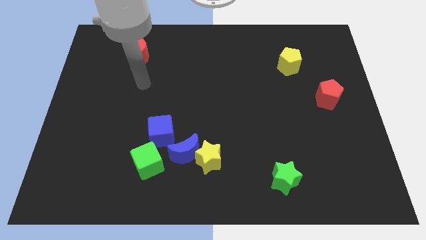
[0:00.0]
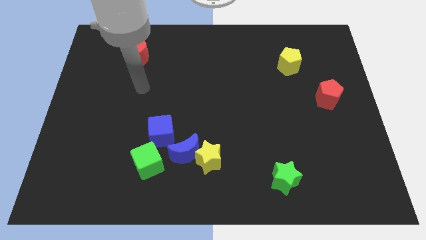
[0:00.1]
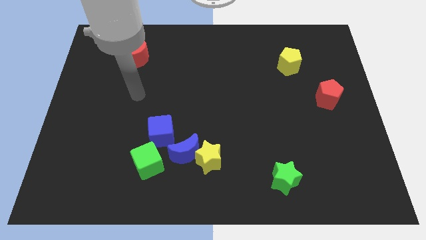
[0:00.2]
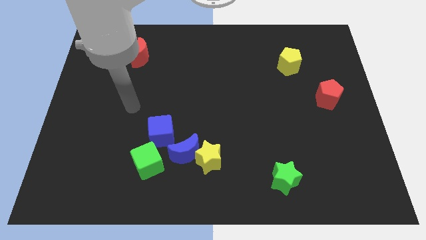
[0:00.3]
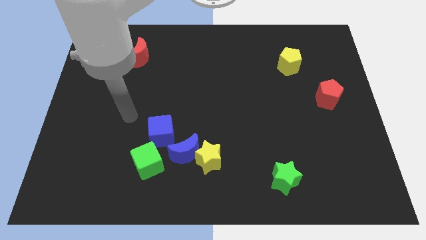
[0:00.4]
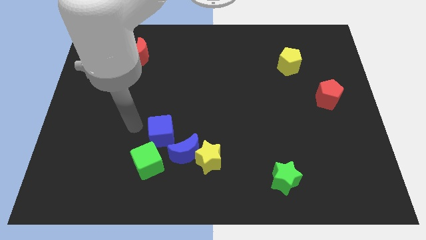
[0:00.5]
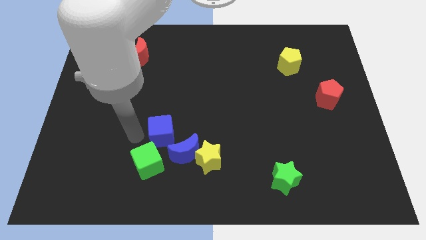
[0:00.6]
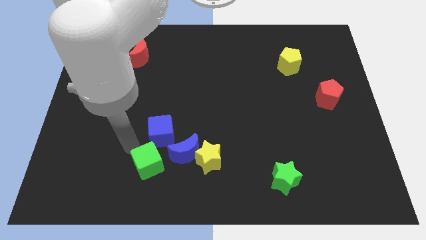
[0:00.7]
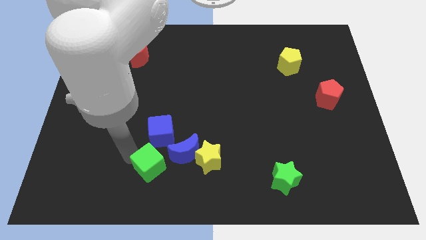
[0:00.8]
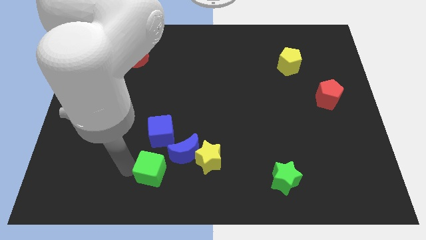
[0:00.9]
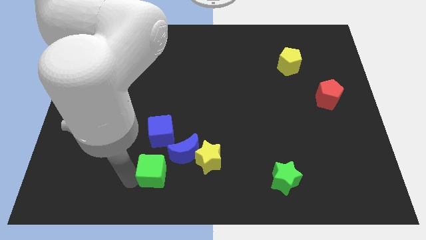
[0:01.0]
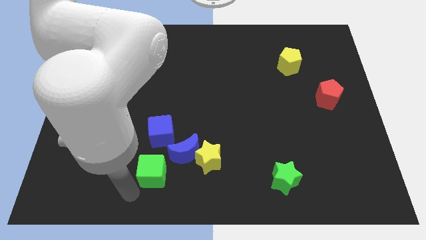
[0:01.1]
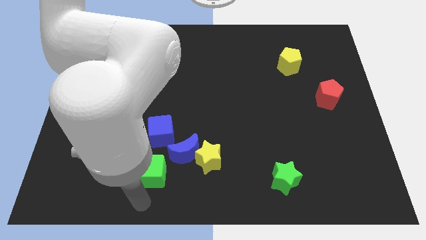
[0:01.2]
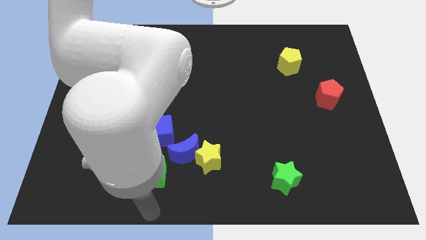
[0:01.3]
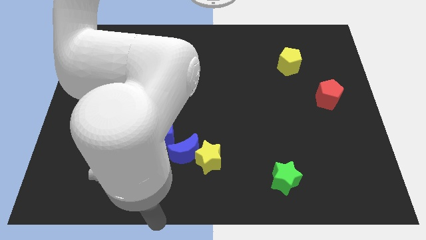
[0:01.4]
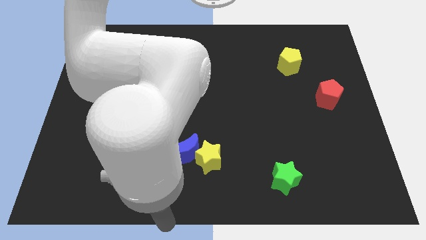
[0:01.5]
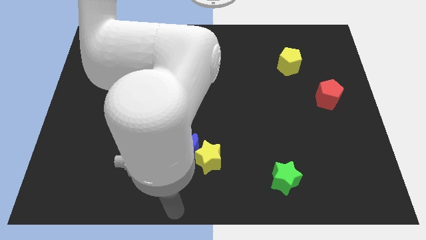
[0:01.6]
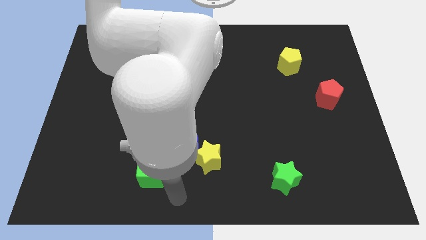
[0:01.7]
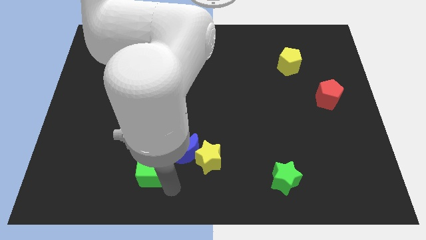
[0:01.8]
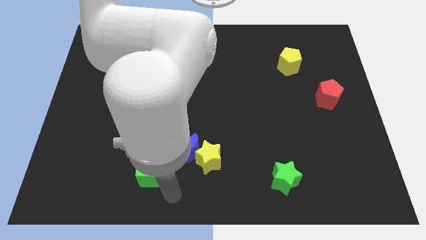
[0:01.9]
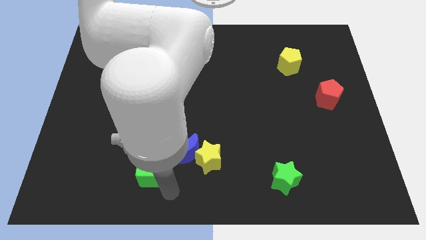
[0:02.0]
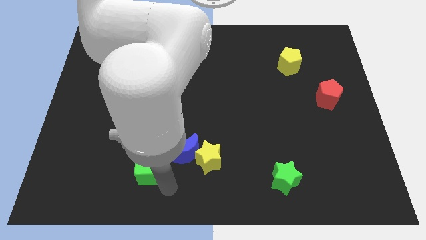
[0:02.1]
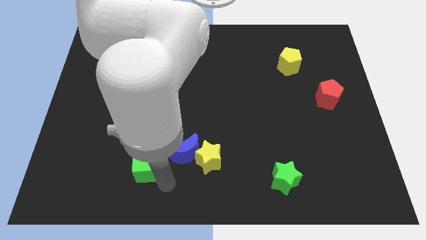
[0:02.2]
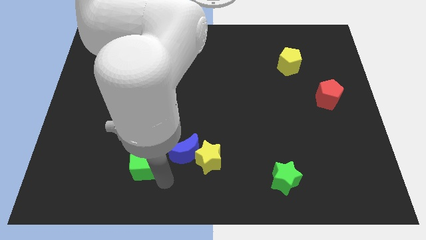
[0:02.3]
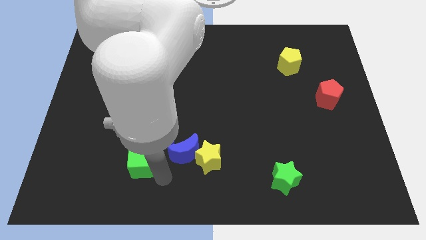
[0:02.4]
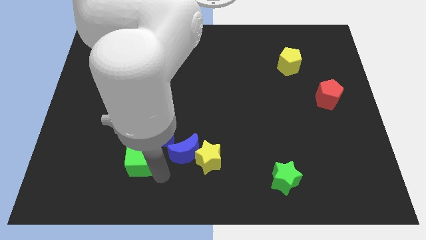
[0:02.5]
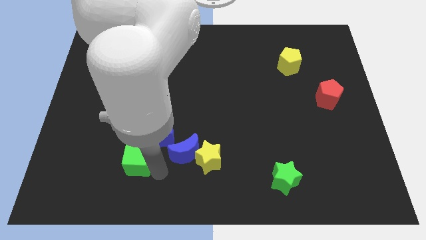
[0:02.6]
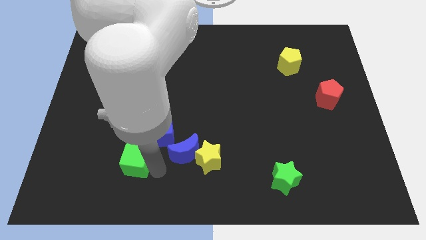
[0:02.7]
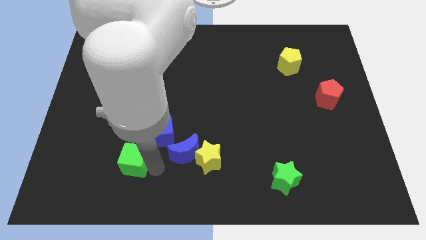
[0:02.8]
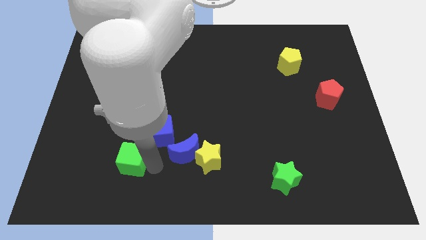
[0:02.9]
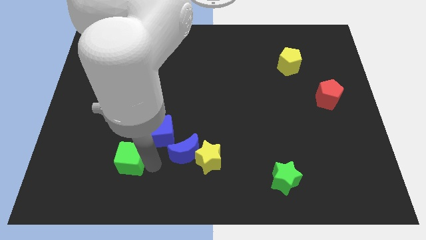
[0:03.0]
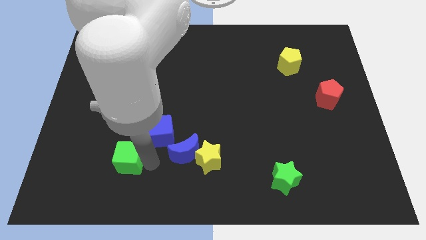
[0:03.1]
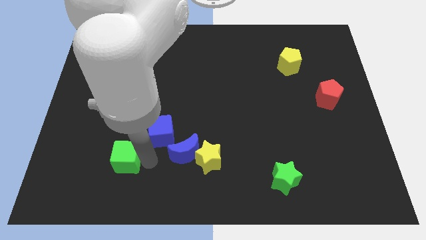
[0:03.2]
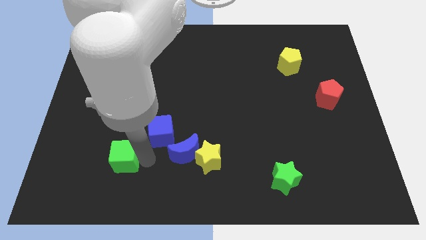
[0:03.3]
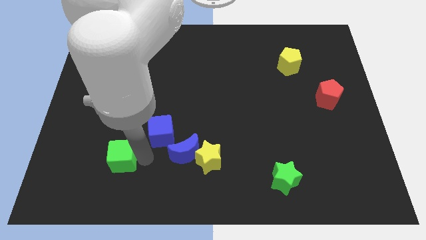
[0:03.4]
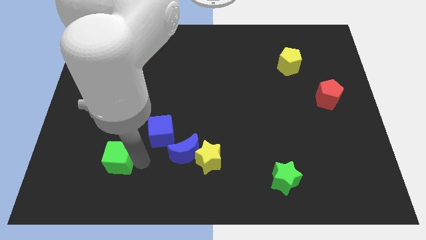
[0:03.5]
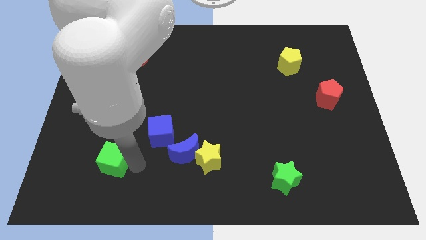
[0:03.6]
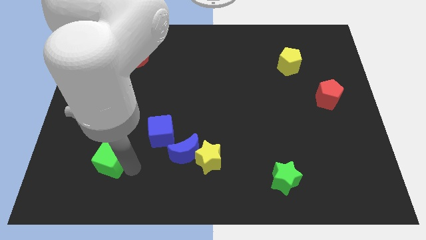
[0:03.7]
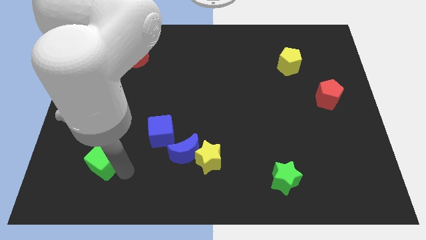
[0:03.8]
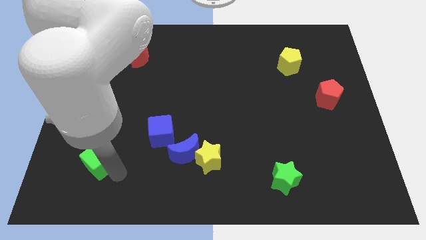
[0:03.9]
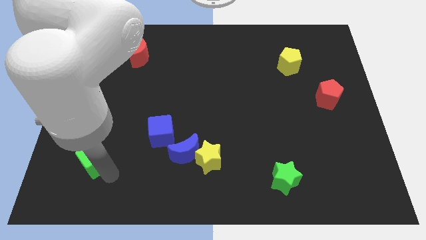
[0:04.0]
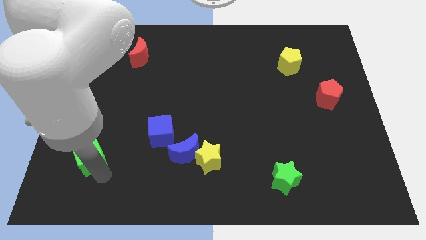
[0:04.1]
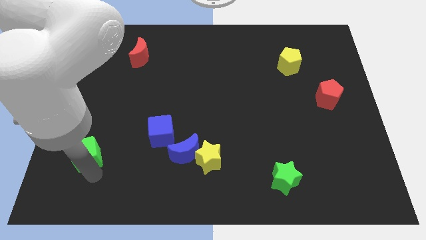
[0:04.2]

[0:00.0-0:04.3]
slide the green cube a bit up and left diagonally

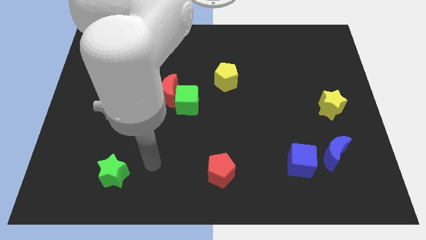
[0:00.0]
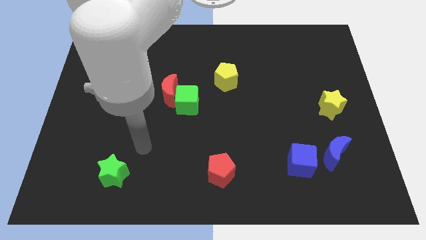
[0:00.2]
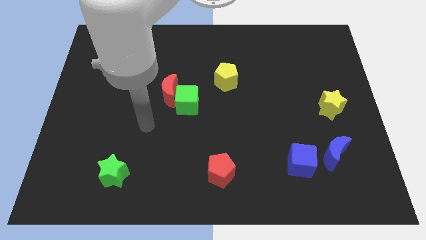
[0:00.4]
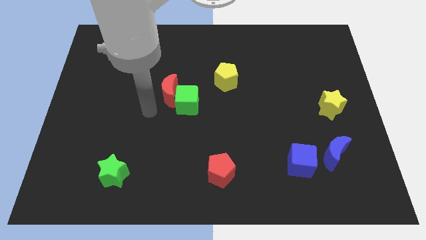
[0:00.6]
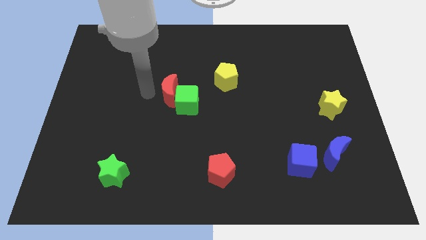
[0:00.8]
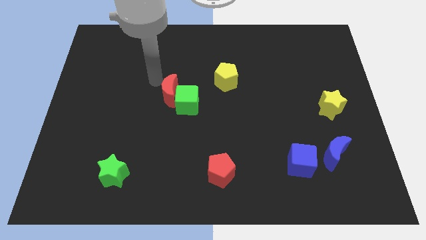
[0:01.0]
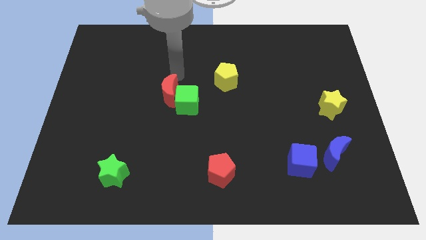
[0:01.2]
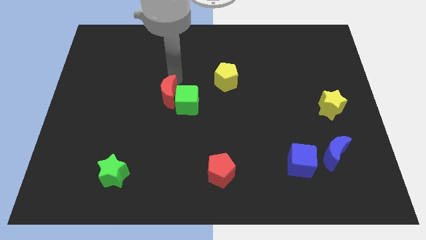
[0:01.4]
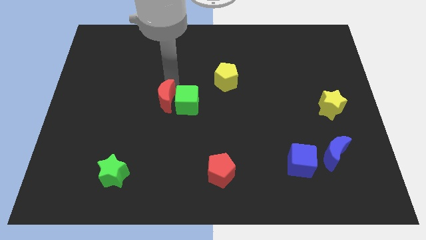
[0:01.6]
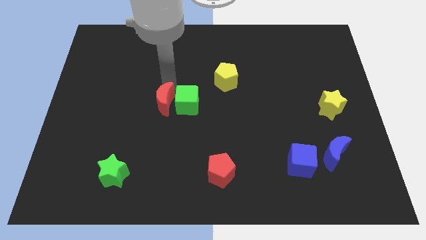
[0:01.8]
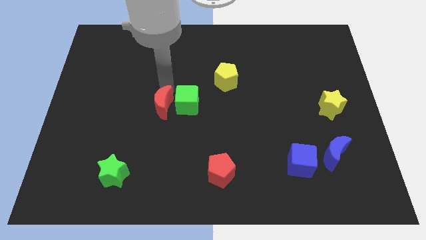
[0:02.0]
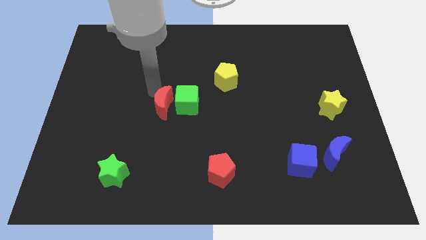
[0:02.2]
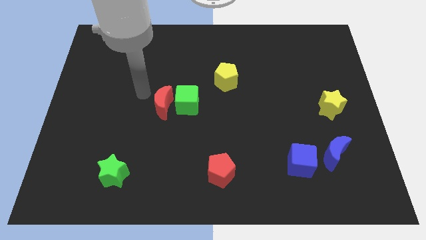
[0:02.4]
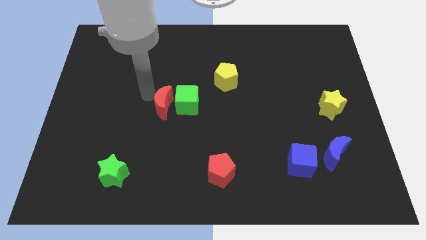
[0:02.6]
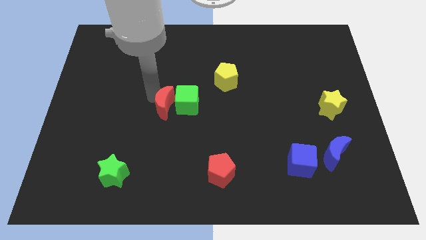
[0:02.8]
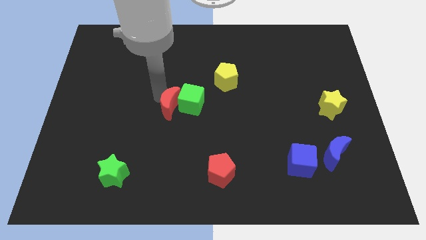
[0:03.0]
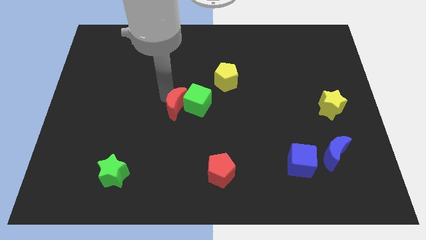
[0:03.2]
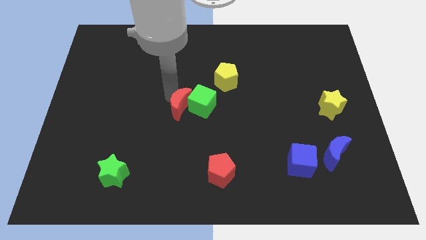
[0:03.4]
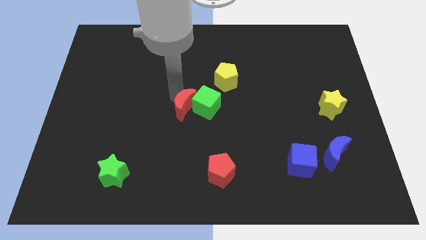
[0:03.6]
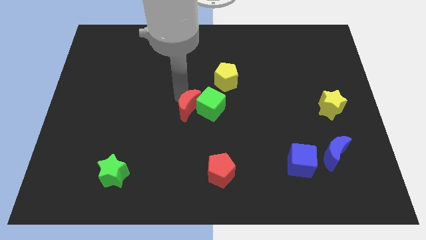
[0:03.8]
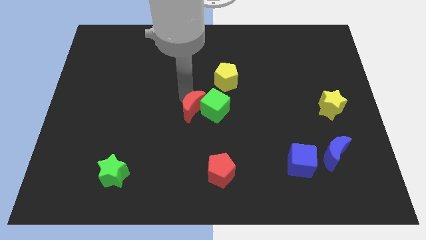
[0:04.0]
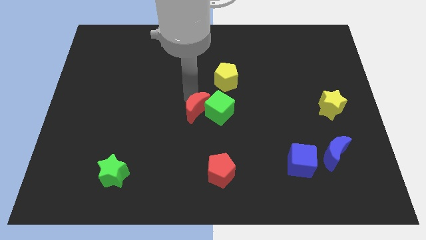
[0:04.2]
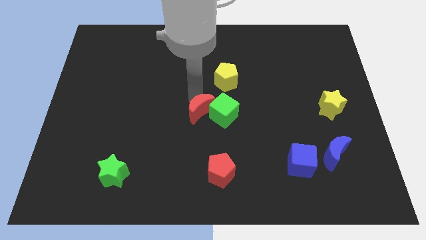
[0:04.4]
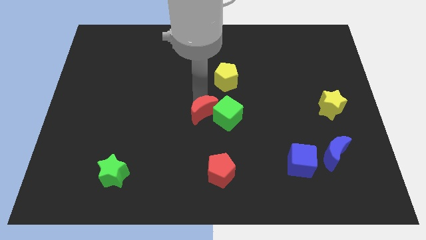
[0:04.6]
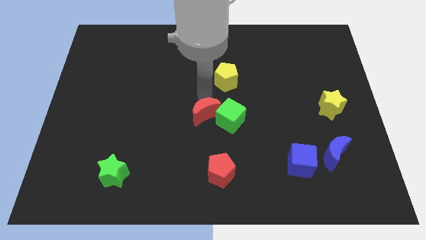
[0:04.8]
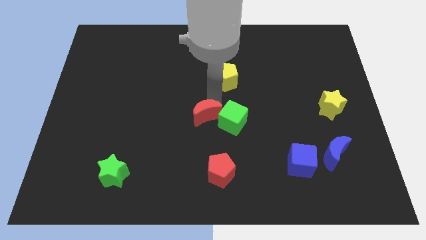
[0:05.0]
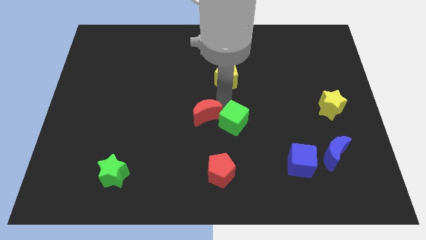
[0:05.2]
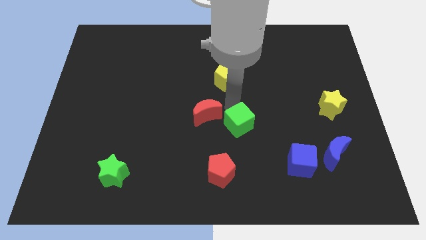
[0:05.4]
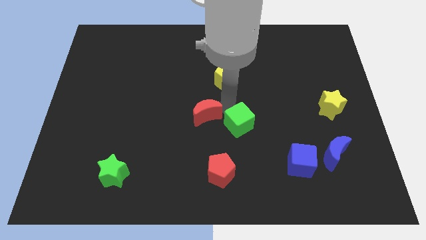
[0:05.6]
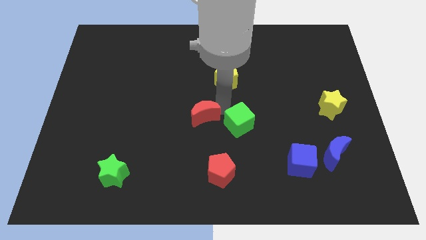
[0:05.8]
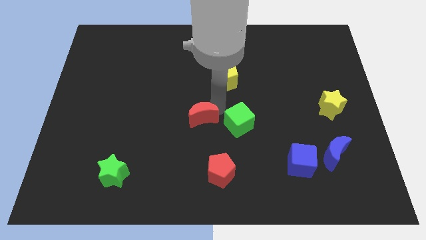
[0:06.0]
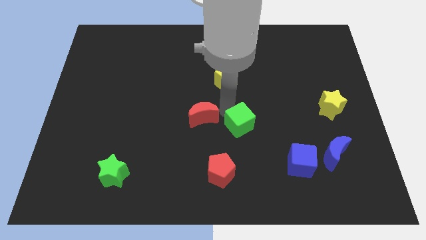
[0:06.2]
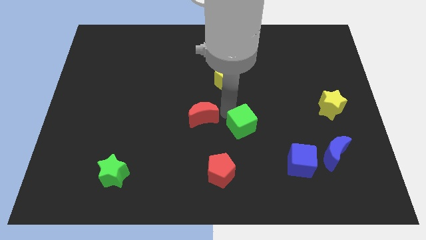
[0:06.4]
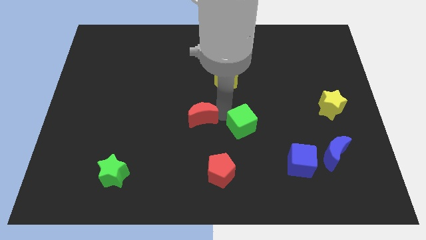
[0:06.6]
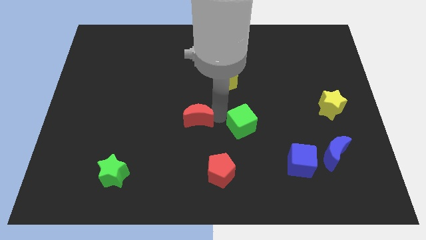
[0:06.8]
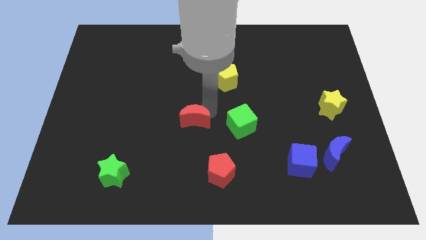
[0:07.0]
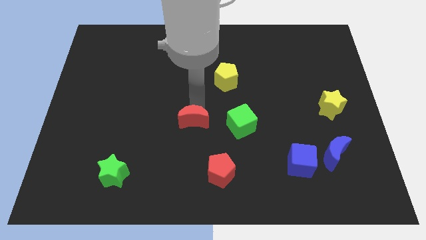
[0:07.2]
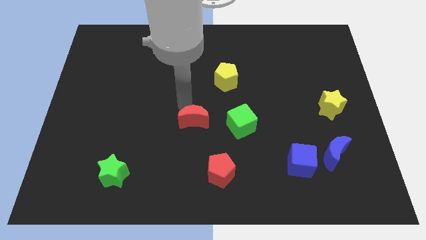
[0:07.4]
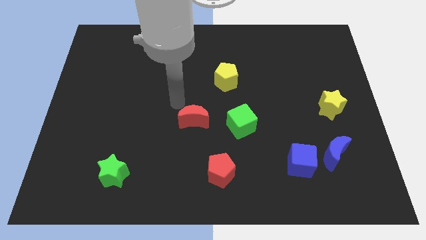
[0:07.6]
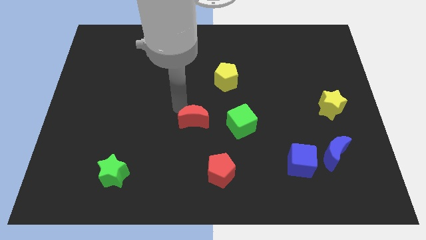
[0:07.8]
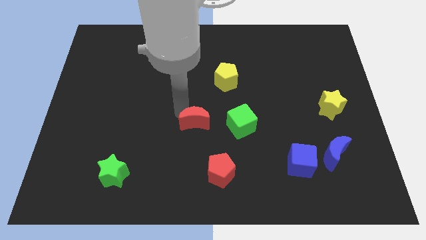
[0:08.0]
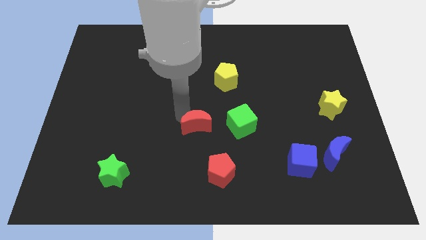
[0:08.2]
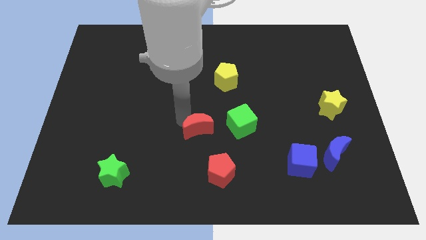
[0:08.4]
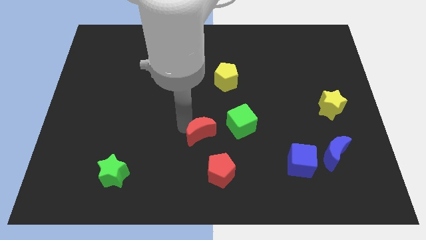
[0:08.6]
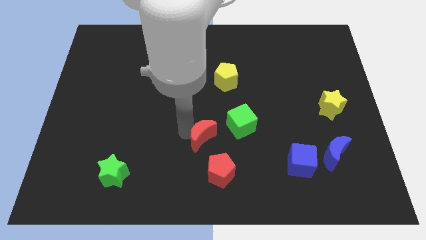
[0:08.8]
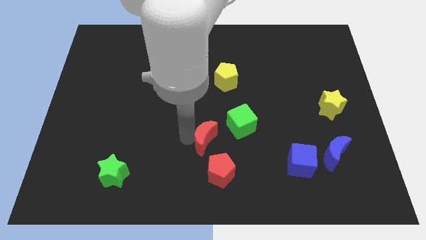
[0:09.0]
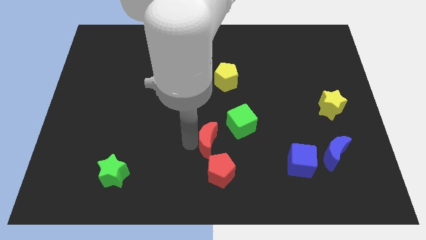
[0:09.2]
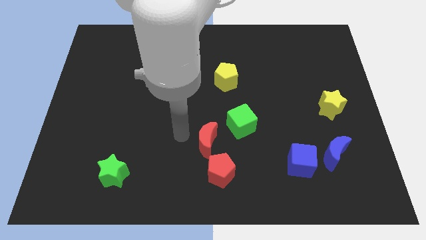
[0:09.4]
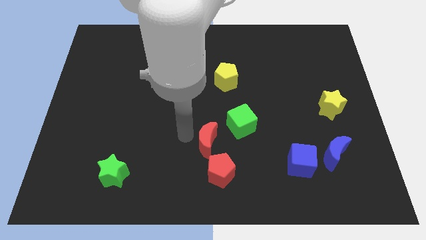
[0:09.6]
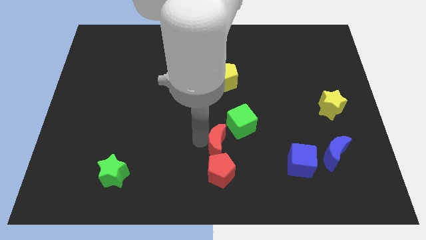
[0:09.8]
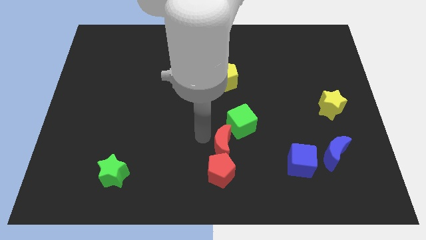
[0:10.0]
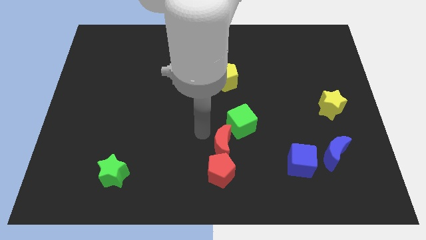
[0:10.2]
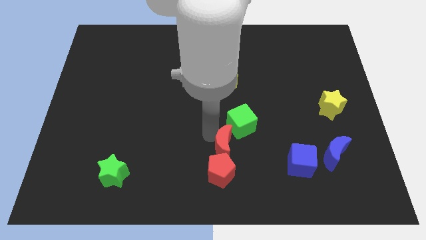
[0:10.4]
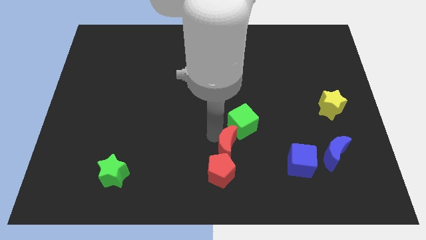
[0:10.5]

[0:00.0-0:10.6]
slide the red moon down and then to the right
